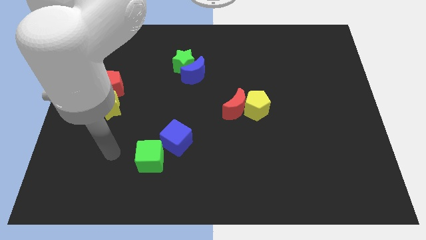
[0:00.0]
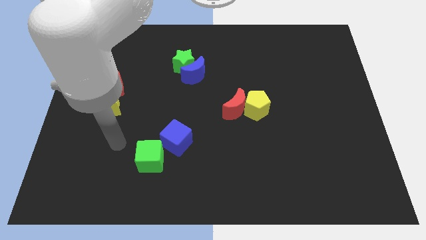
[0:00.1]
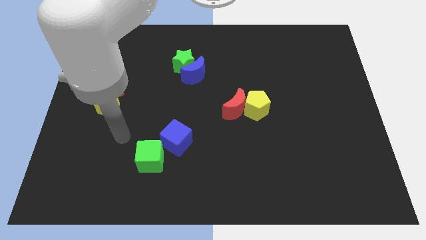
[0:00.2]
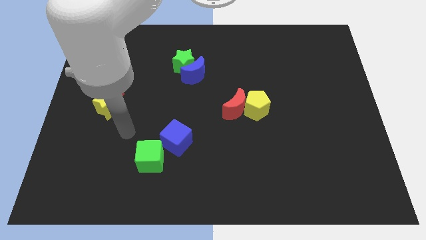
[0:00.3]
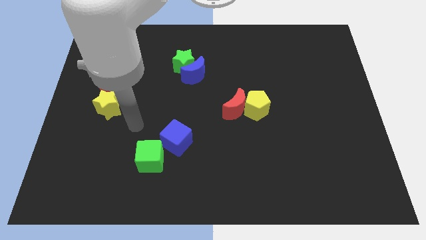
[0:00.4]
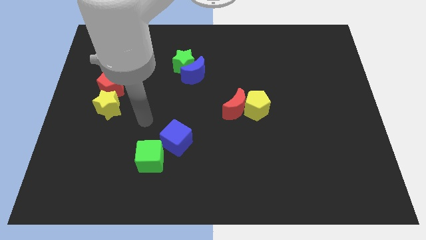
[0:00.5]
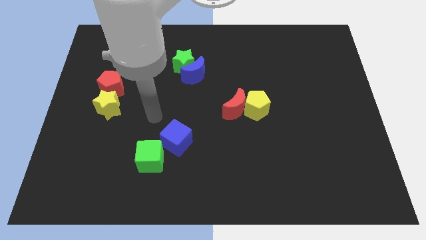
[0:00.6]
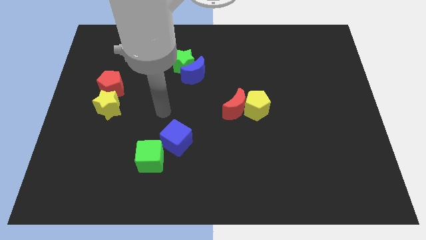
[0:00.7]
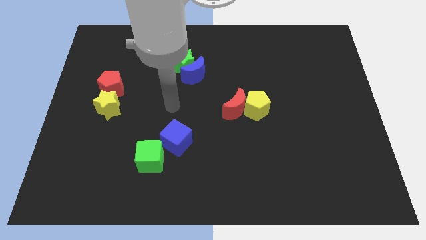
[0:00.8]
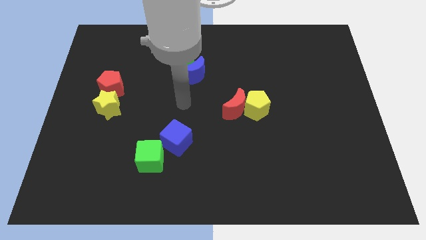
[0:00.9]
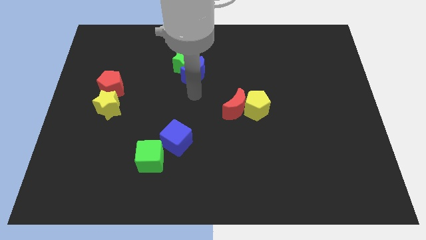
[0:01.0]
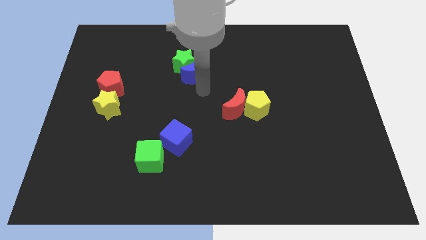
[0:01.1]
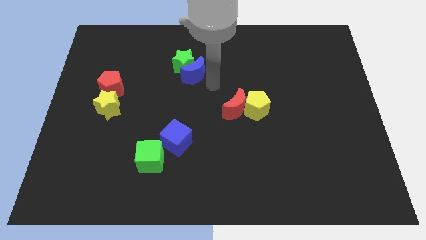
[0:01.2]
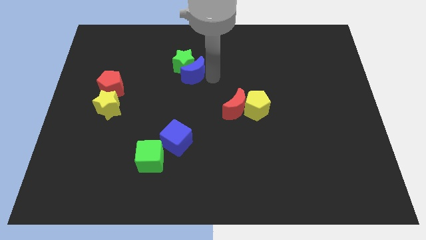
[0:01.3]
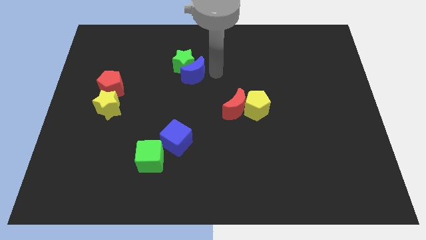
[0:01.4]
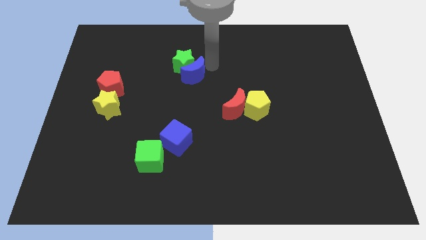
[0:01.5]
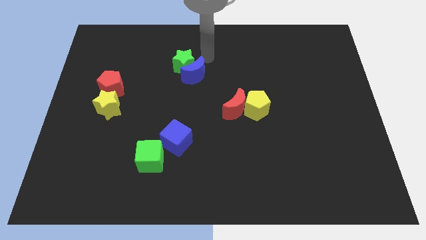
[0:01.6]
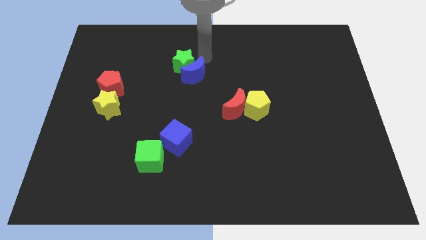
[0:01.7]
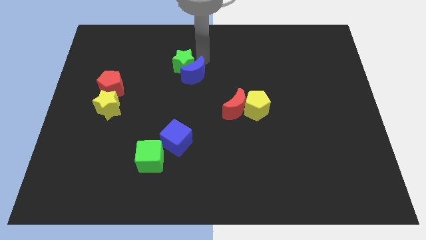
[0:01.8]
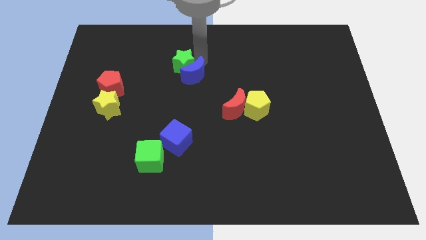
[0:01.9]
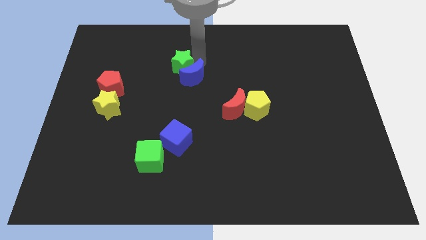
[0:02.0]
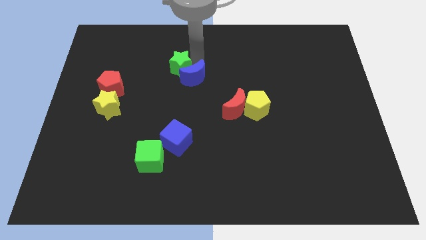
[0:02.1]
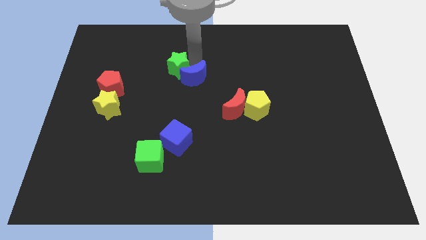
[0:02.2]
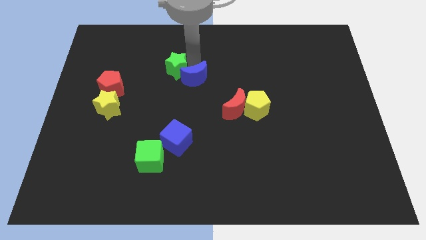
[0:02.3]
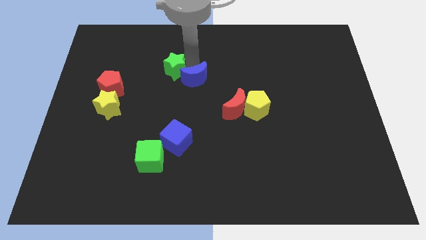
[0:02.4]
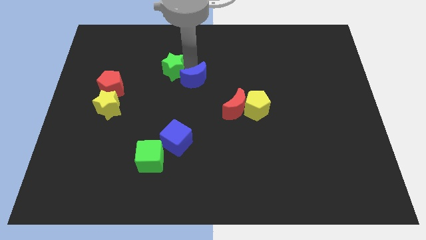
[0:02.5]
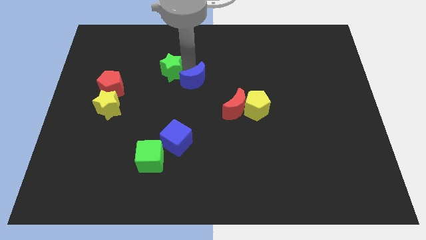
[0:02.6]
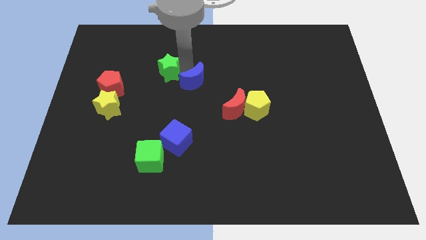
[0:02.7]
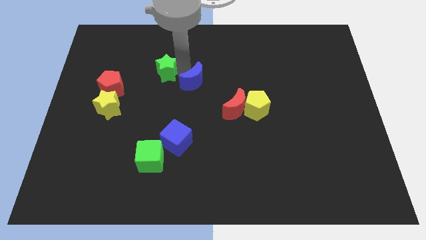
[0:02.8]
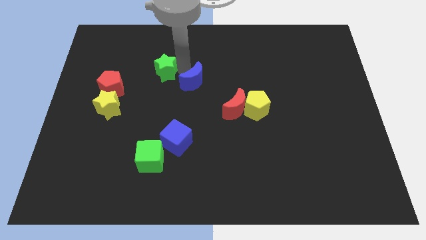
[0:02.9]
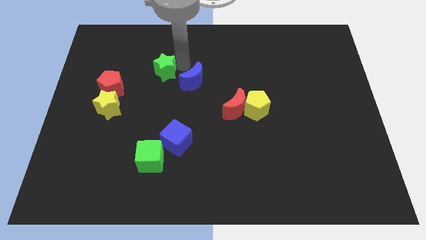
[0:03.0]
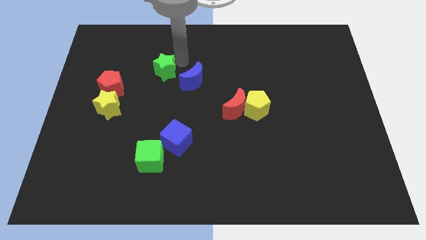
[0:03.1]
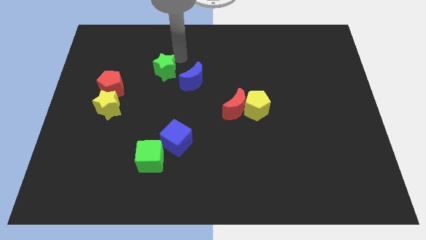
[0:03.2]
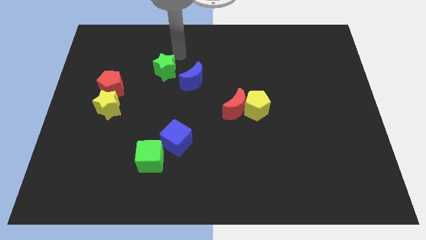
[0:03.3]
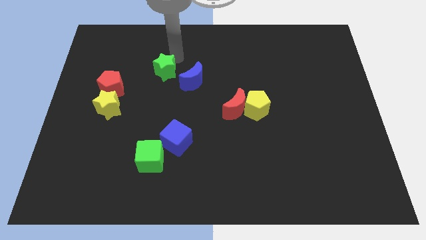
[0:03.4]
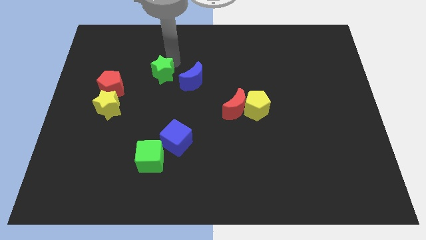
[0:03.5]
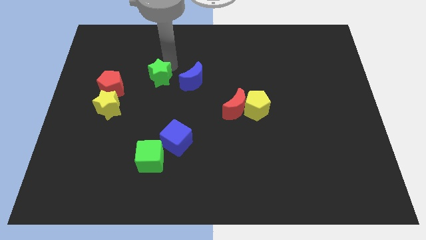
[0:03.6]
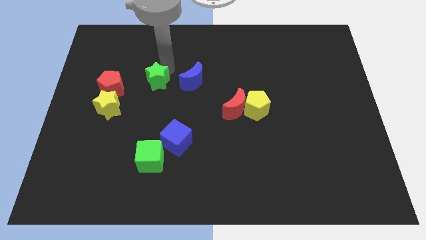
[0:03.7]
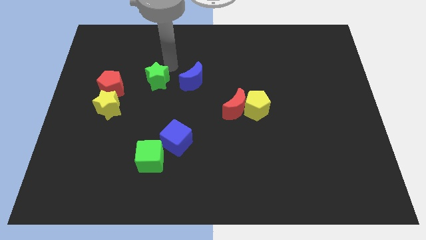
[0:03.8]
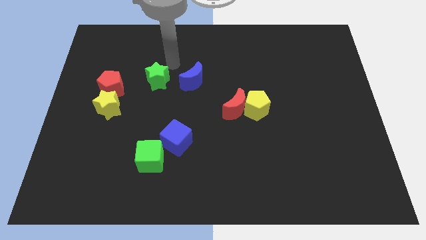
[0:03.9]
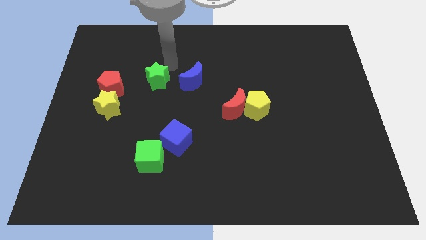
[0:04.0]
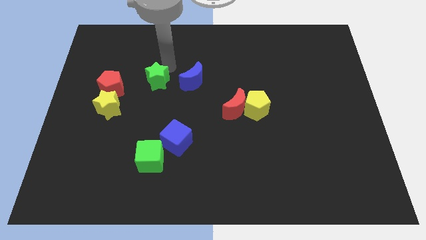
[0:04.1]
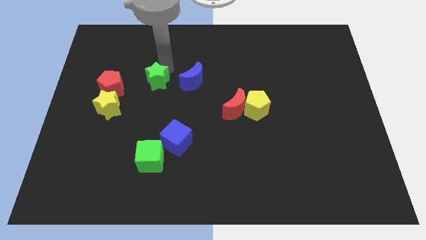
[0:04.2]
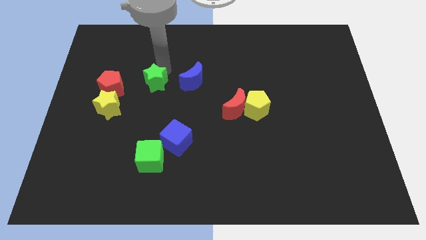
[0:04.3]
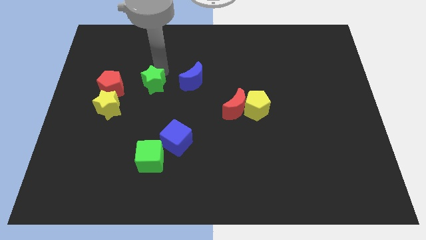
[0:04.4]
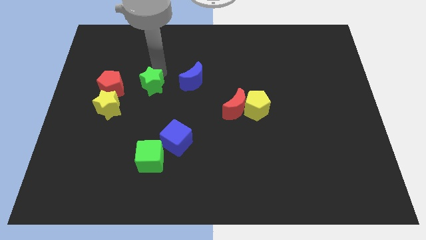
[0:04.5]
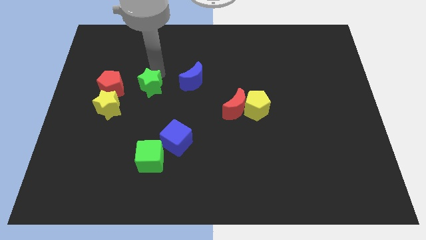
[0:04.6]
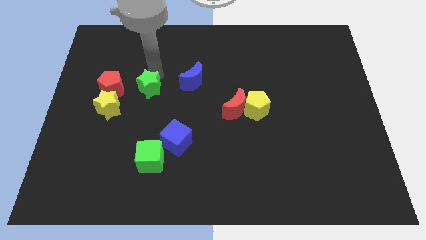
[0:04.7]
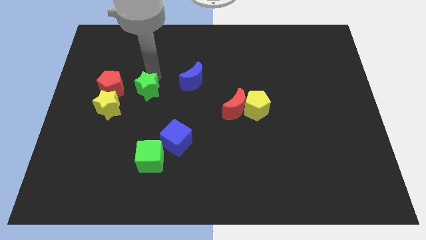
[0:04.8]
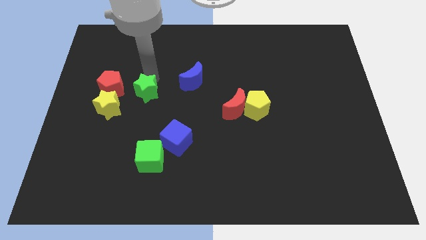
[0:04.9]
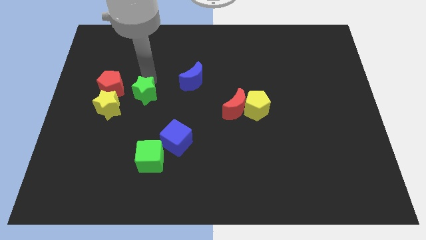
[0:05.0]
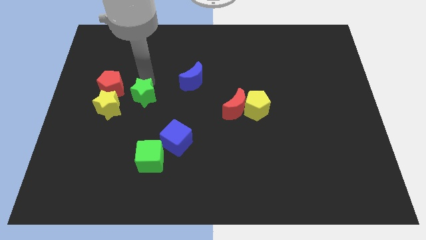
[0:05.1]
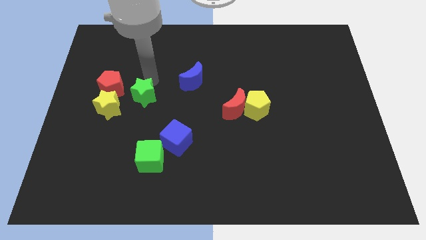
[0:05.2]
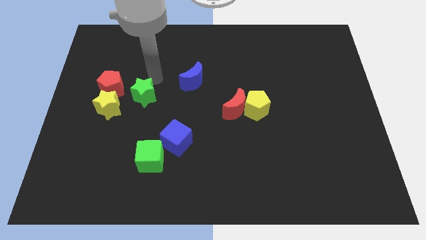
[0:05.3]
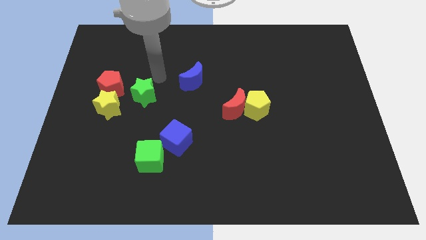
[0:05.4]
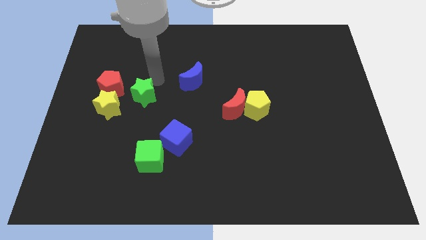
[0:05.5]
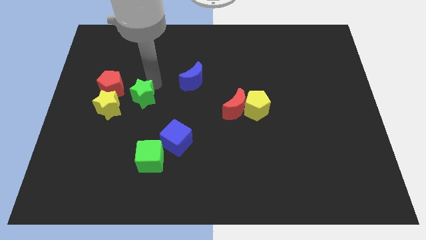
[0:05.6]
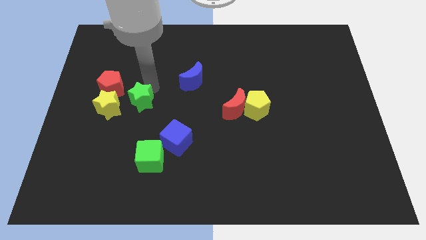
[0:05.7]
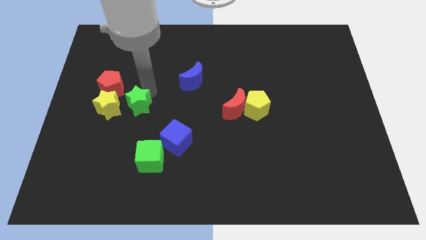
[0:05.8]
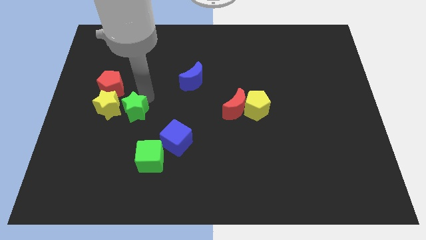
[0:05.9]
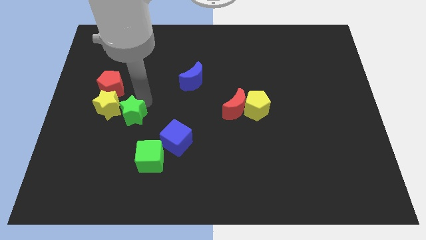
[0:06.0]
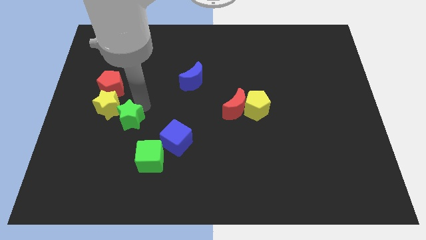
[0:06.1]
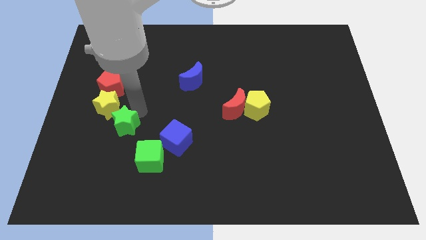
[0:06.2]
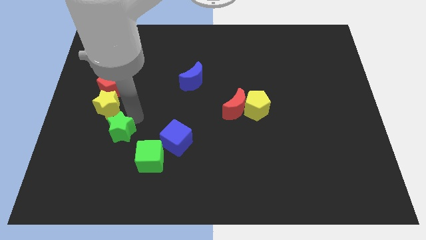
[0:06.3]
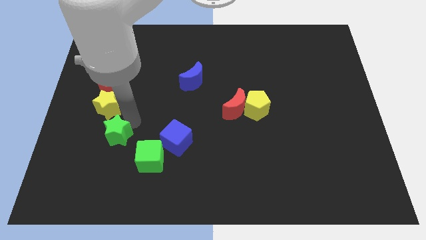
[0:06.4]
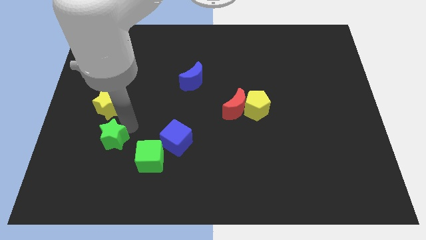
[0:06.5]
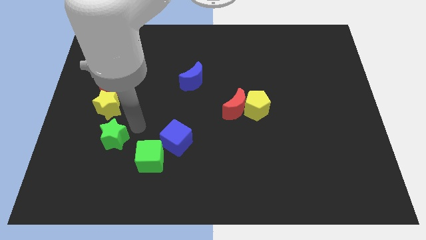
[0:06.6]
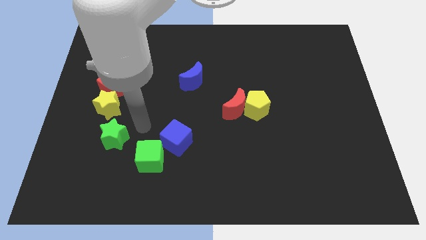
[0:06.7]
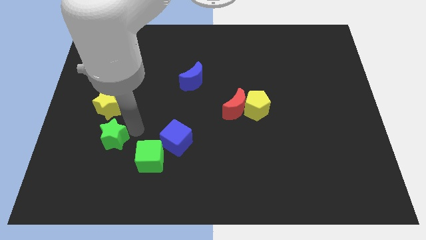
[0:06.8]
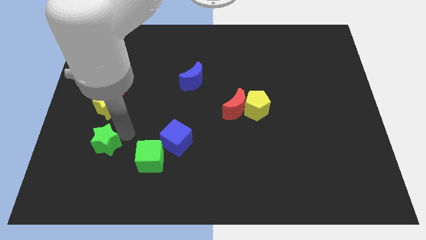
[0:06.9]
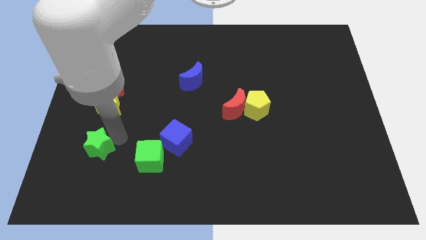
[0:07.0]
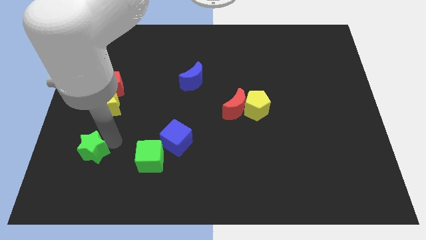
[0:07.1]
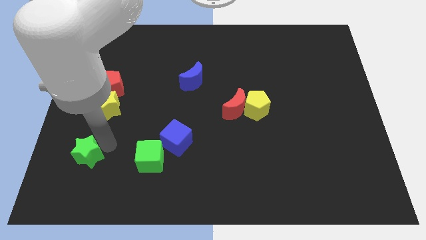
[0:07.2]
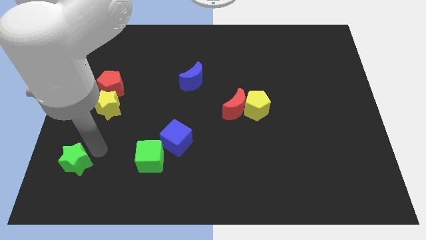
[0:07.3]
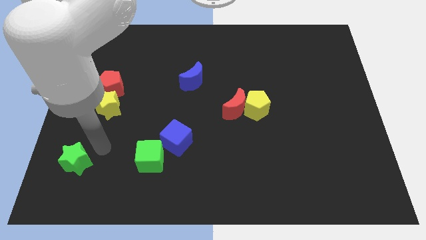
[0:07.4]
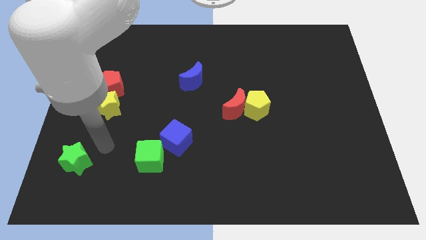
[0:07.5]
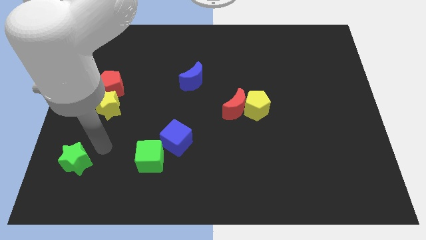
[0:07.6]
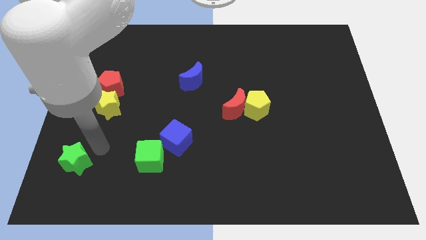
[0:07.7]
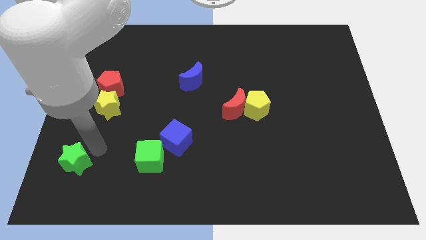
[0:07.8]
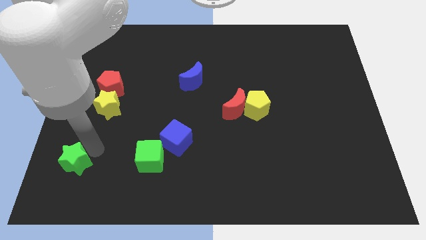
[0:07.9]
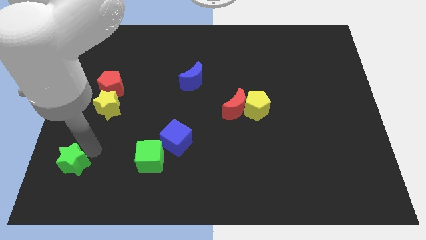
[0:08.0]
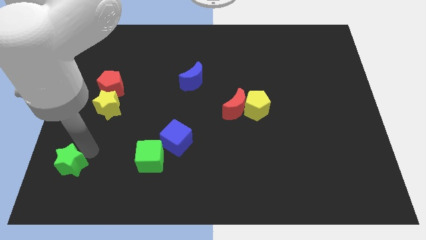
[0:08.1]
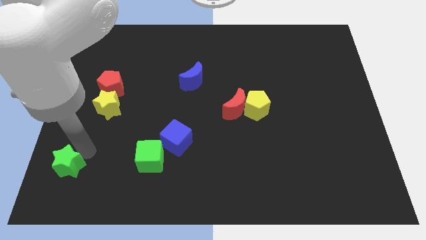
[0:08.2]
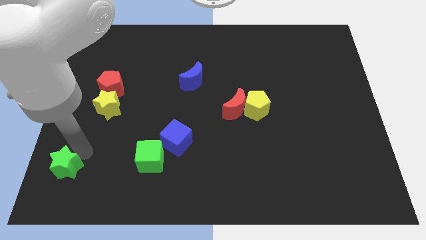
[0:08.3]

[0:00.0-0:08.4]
move the green star to the bottom left corner
